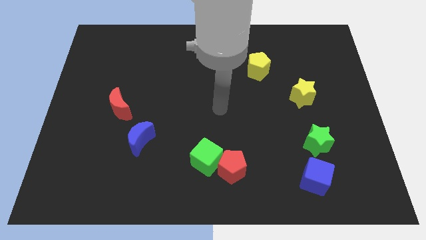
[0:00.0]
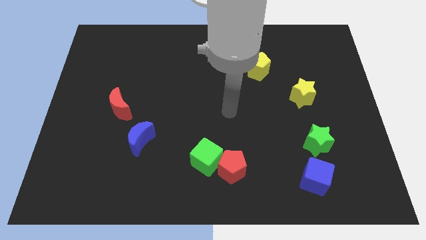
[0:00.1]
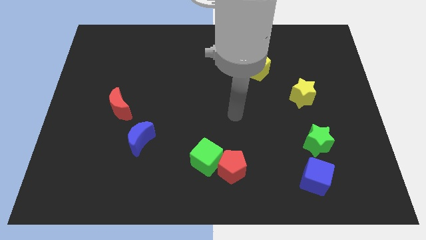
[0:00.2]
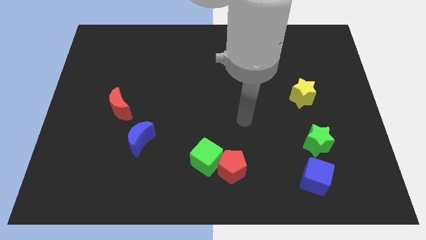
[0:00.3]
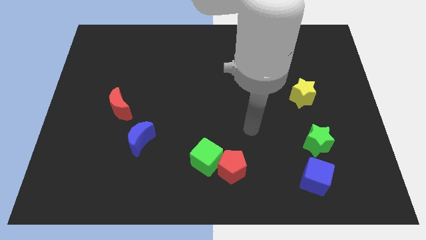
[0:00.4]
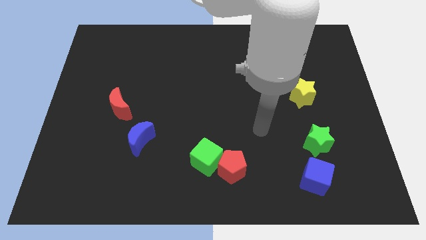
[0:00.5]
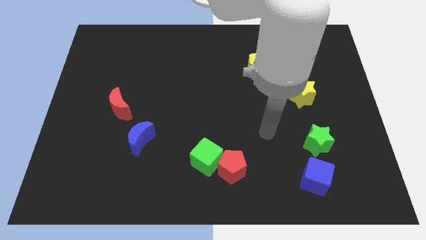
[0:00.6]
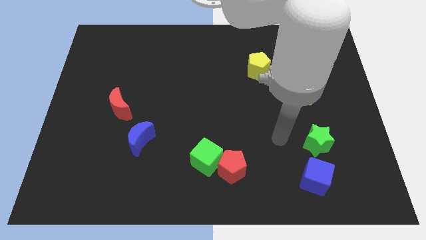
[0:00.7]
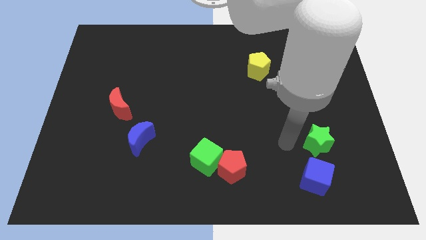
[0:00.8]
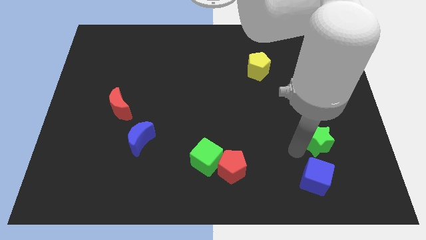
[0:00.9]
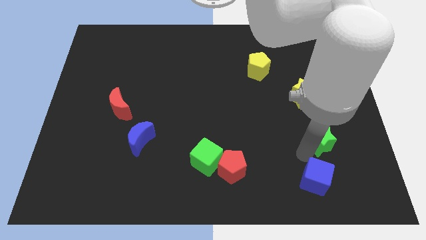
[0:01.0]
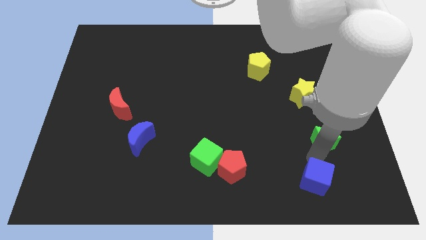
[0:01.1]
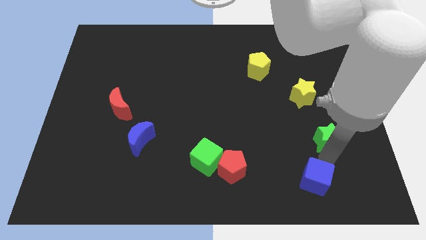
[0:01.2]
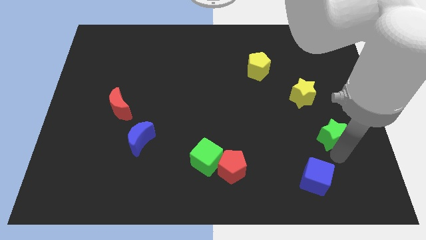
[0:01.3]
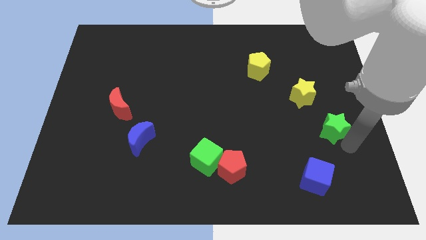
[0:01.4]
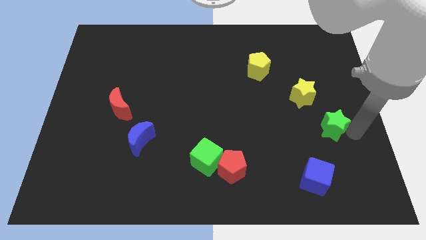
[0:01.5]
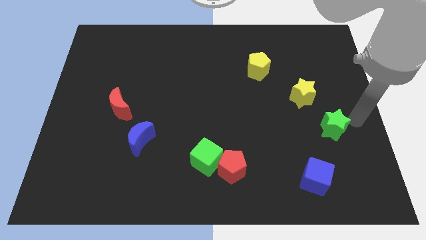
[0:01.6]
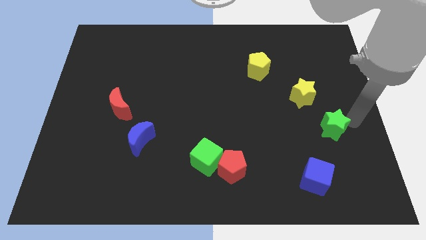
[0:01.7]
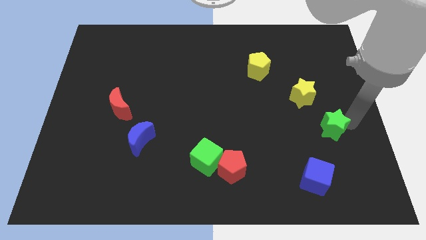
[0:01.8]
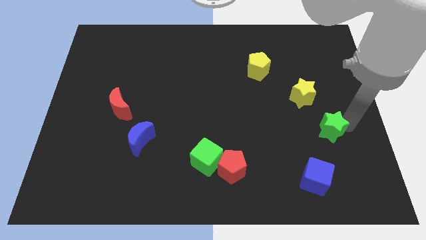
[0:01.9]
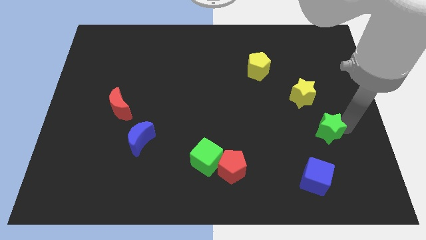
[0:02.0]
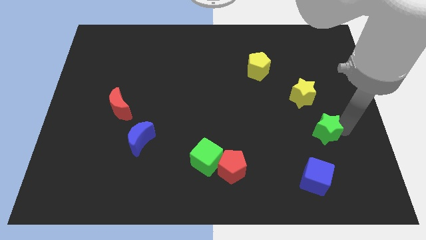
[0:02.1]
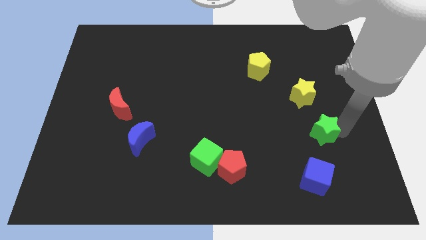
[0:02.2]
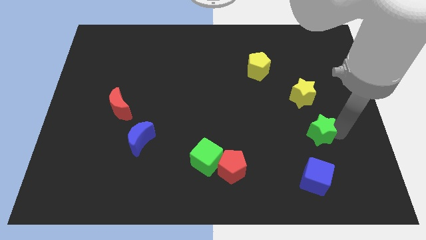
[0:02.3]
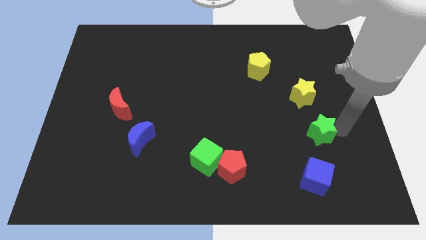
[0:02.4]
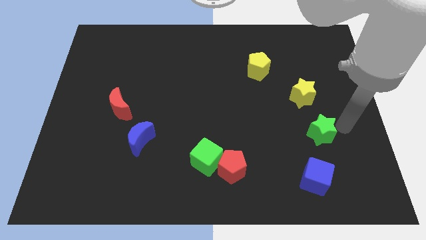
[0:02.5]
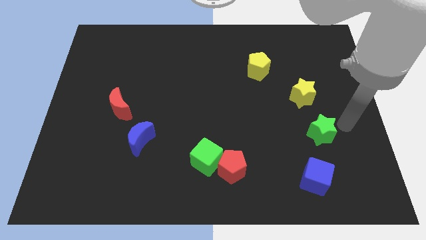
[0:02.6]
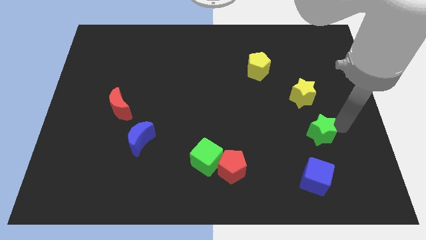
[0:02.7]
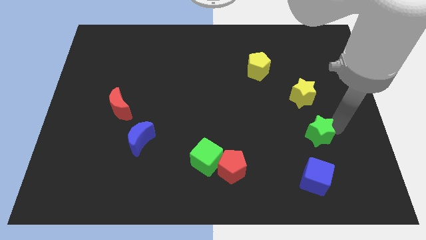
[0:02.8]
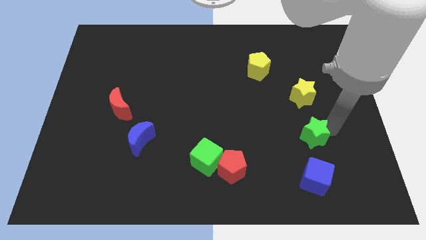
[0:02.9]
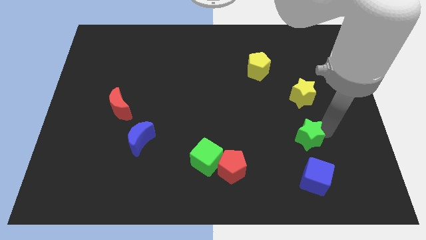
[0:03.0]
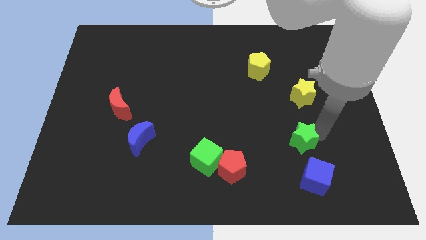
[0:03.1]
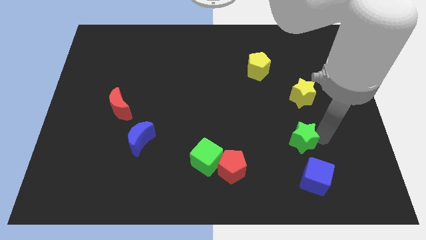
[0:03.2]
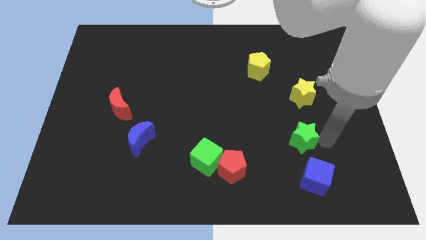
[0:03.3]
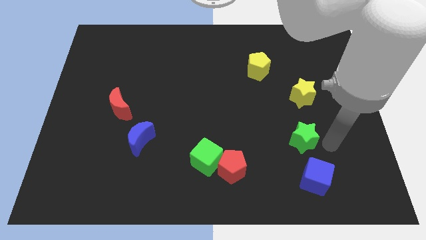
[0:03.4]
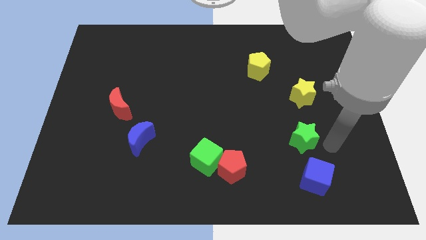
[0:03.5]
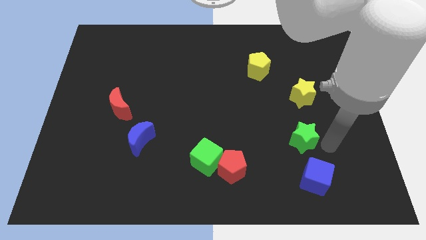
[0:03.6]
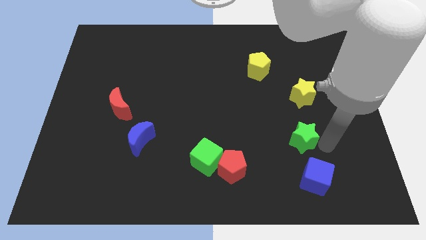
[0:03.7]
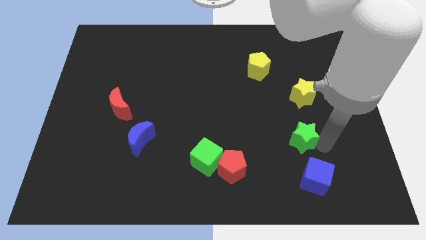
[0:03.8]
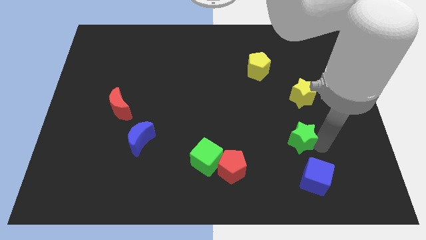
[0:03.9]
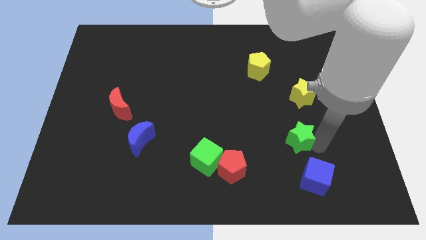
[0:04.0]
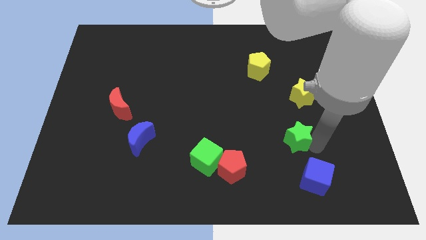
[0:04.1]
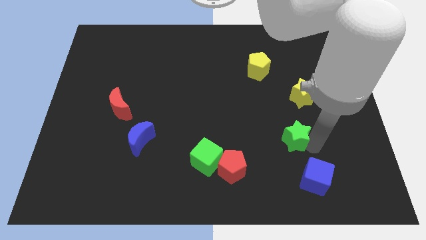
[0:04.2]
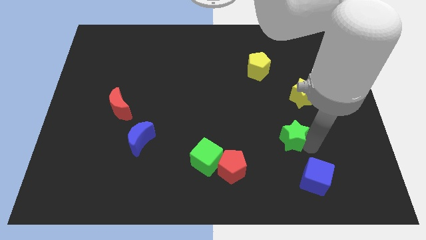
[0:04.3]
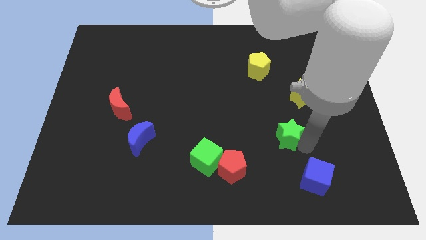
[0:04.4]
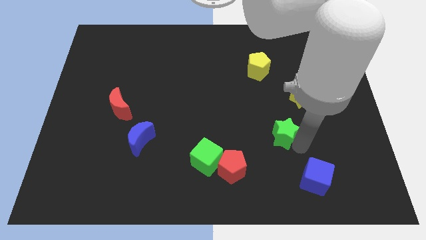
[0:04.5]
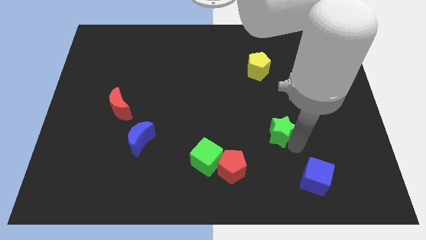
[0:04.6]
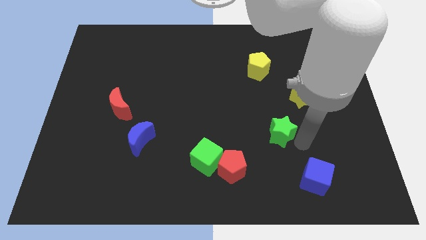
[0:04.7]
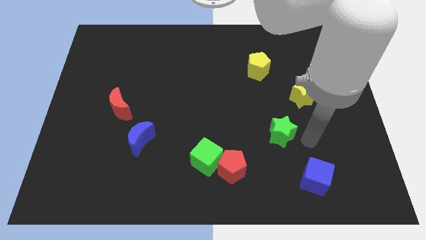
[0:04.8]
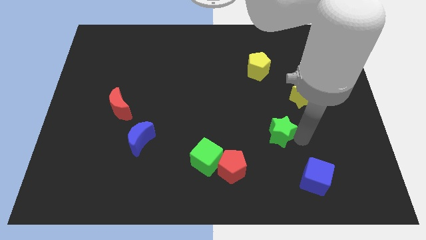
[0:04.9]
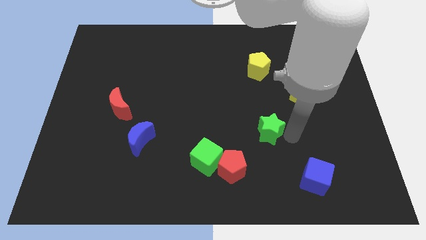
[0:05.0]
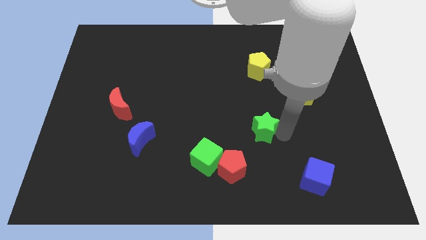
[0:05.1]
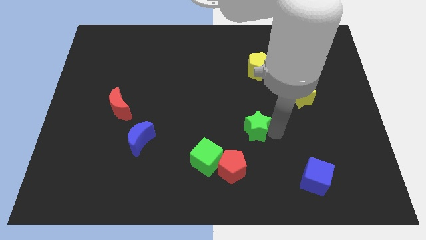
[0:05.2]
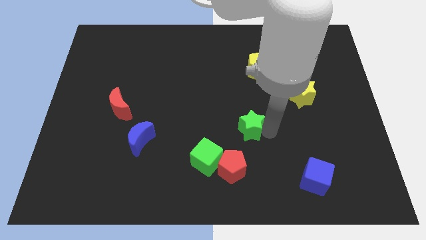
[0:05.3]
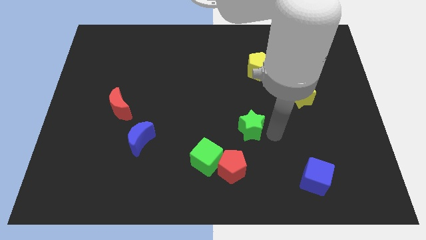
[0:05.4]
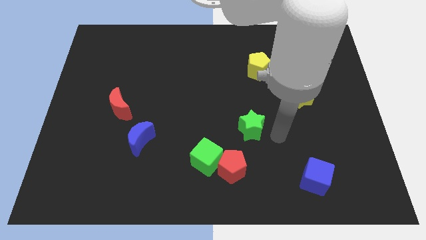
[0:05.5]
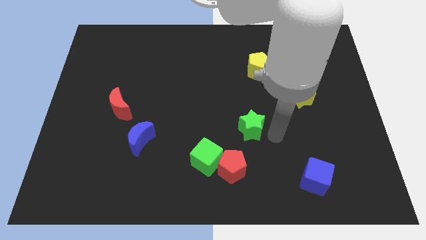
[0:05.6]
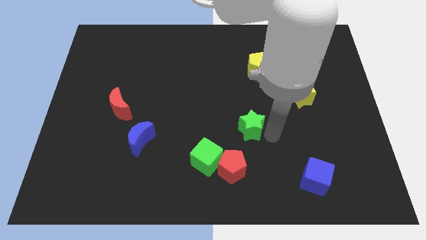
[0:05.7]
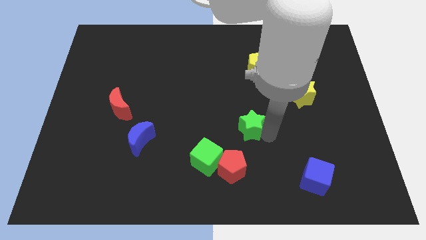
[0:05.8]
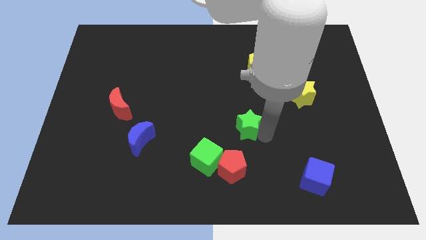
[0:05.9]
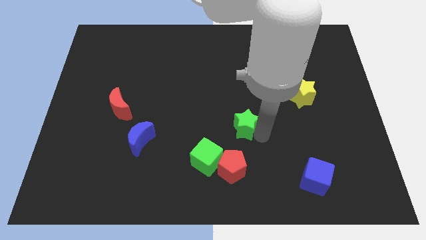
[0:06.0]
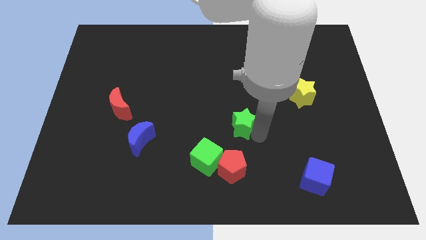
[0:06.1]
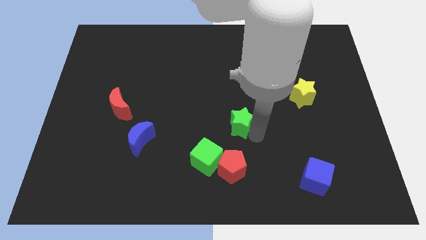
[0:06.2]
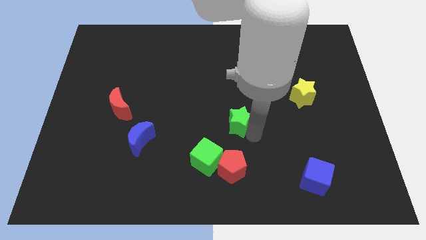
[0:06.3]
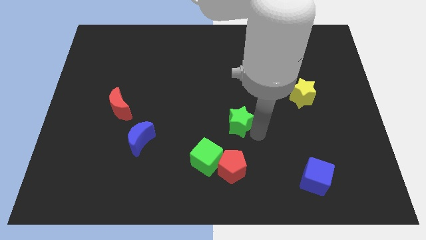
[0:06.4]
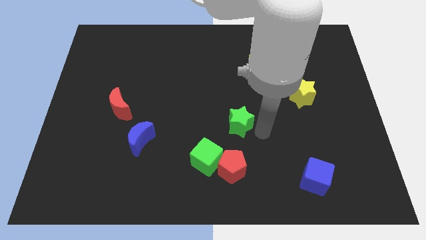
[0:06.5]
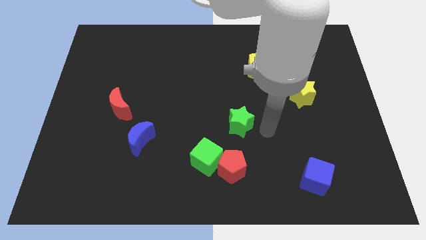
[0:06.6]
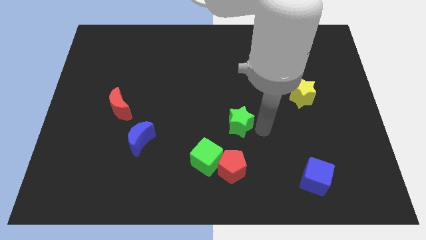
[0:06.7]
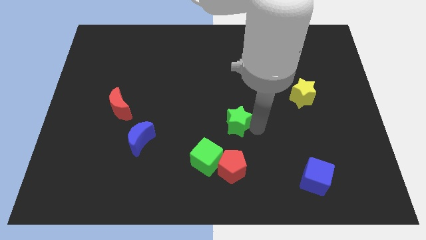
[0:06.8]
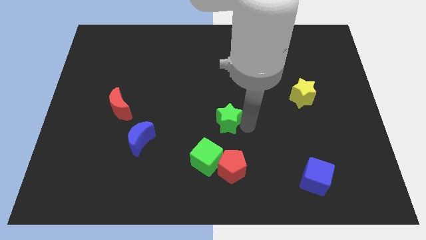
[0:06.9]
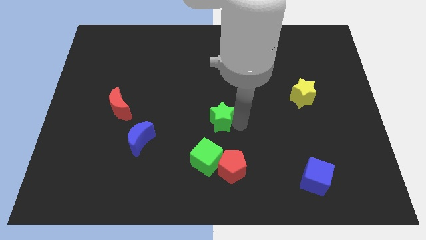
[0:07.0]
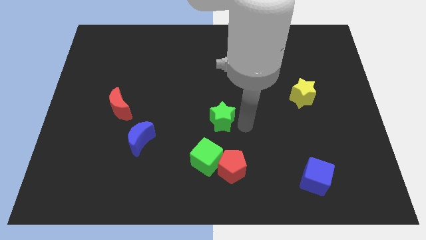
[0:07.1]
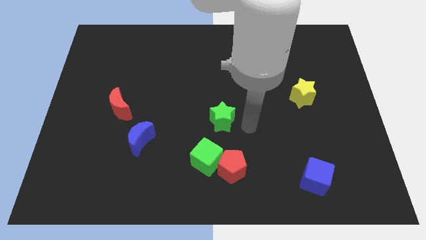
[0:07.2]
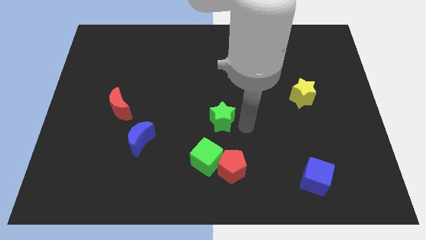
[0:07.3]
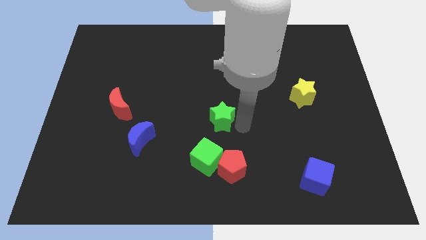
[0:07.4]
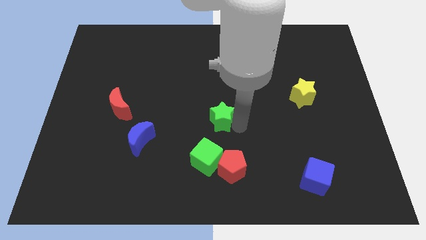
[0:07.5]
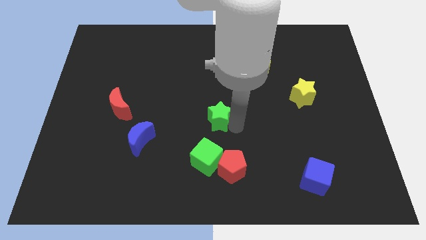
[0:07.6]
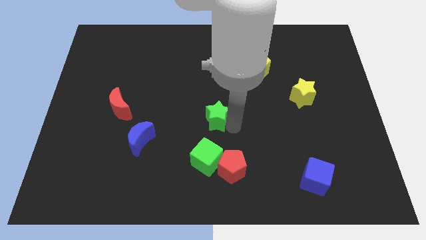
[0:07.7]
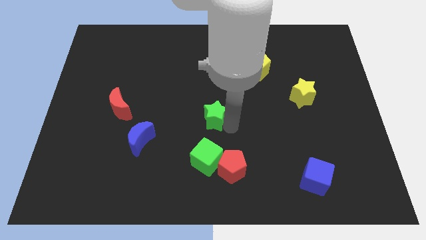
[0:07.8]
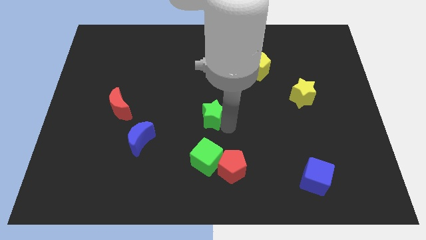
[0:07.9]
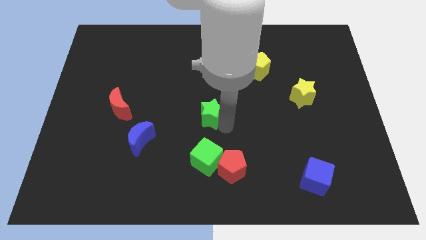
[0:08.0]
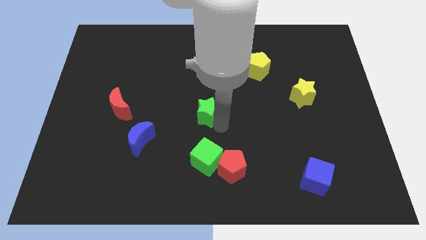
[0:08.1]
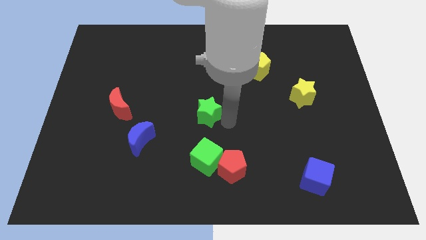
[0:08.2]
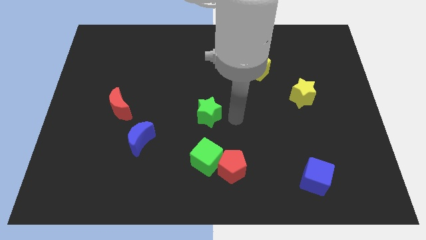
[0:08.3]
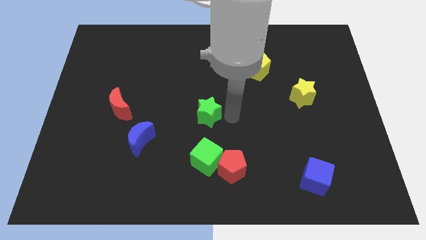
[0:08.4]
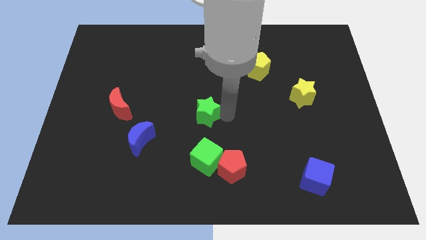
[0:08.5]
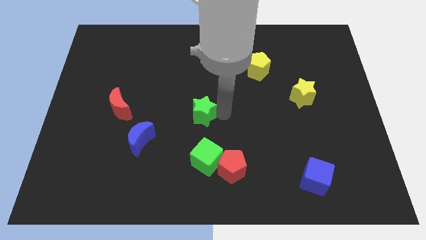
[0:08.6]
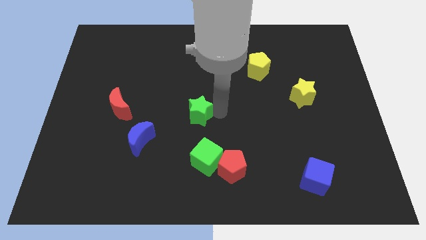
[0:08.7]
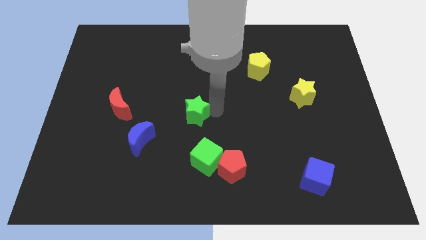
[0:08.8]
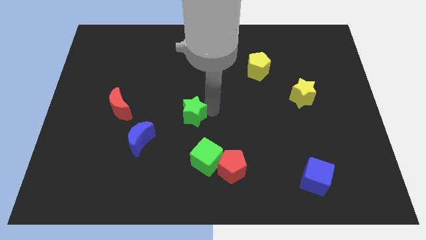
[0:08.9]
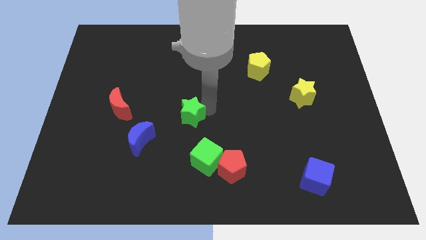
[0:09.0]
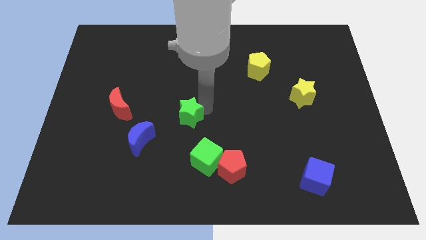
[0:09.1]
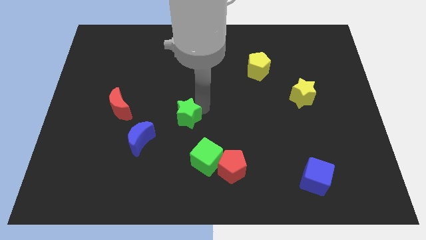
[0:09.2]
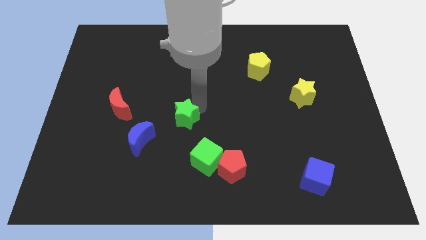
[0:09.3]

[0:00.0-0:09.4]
move the green star to the right of the red moon
